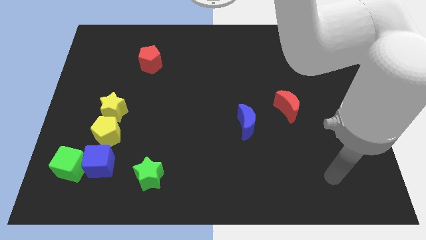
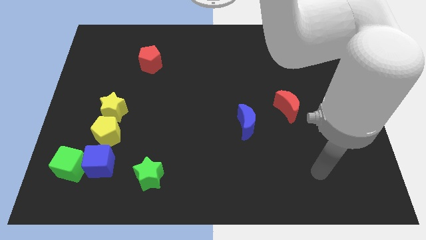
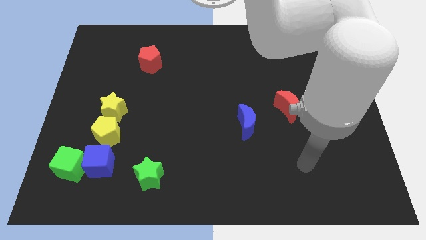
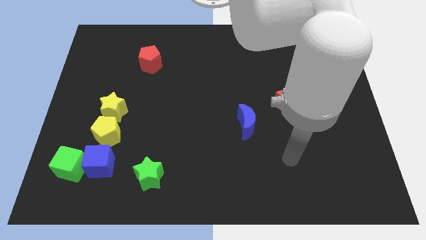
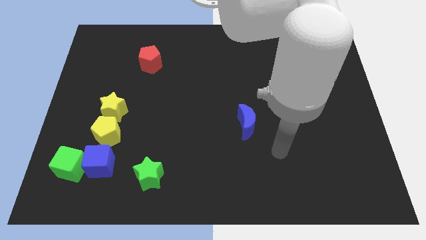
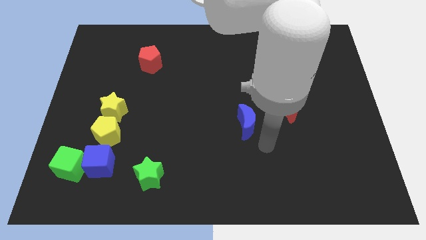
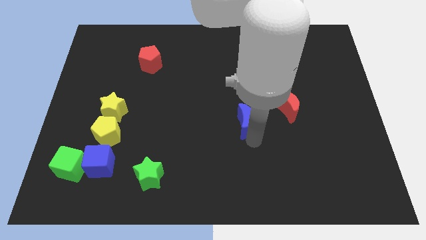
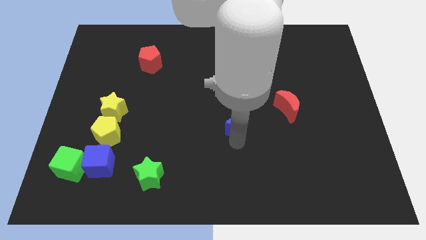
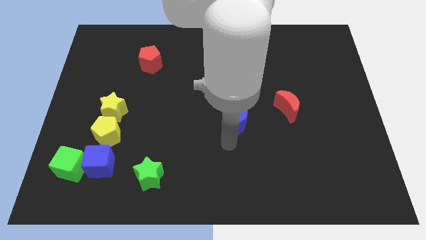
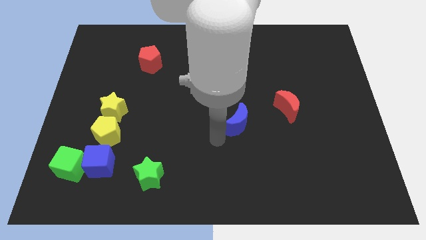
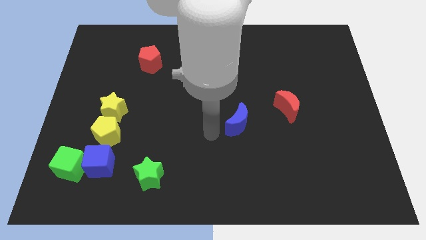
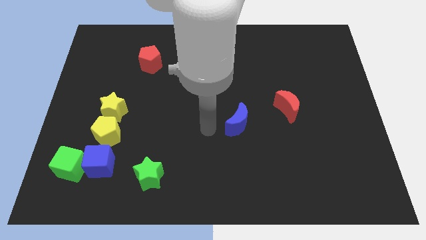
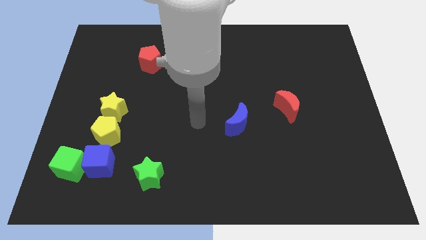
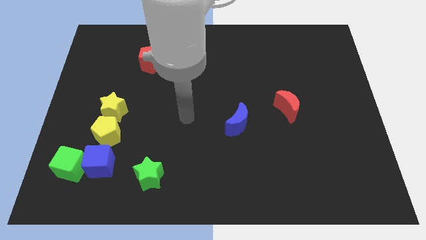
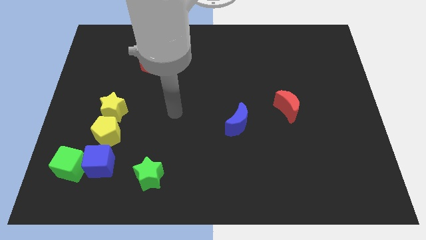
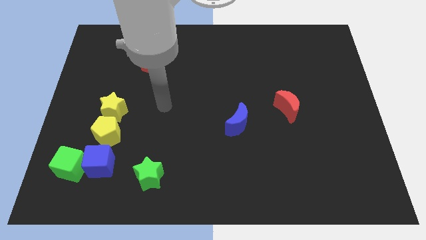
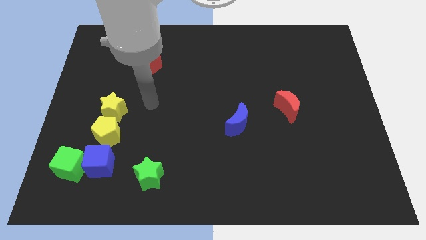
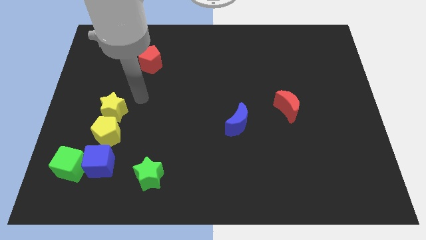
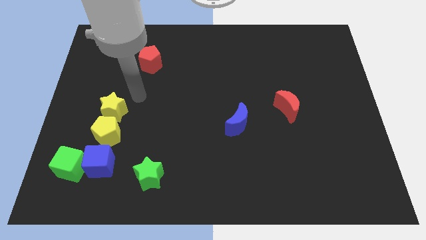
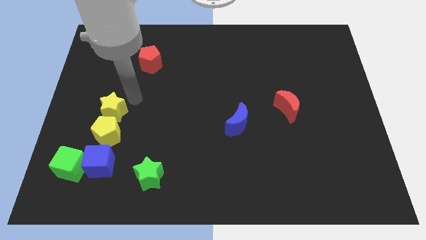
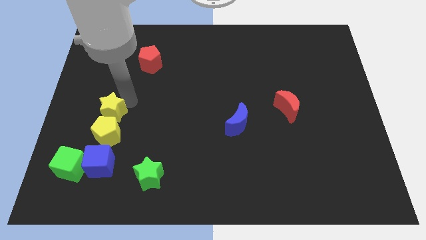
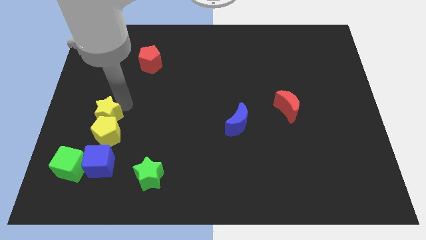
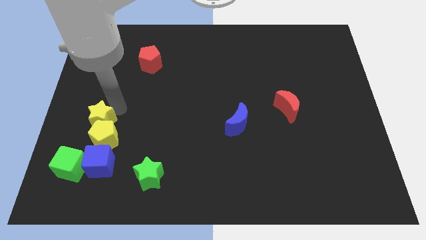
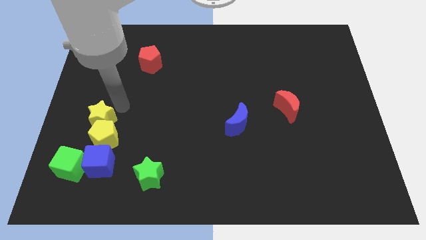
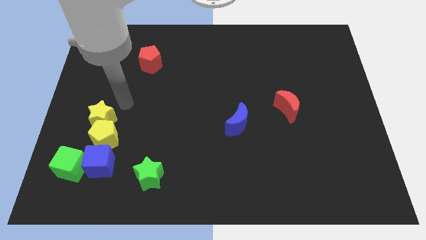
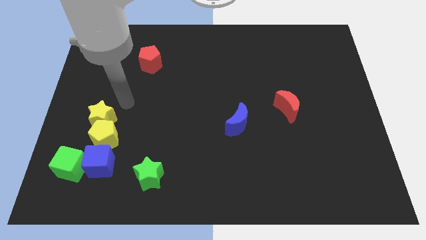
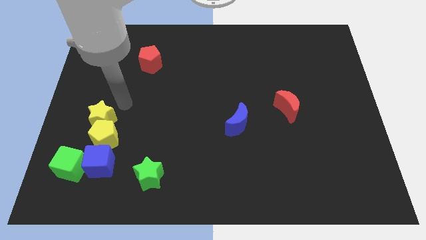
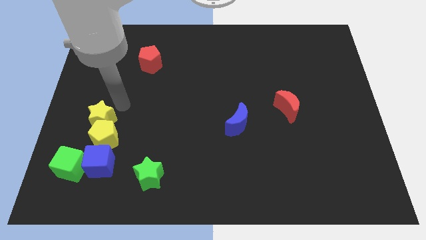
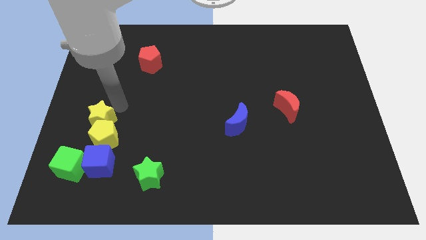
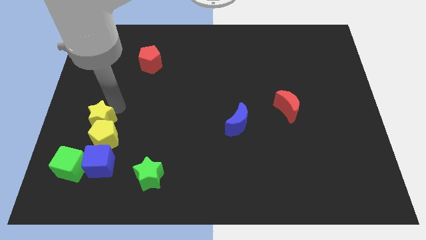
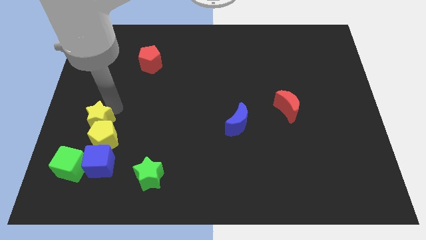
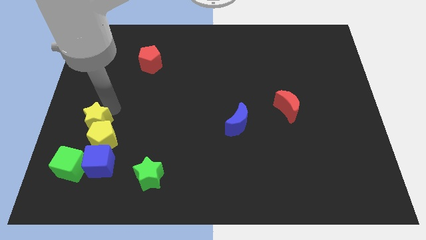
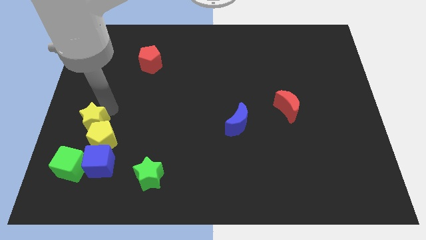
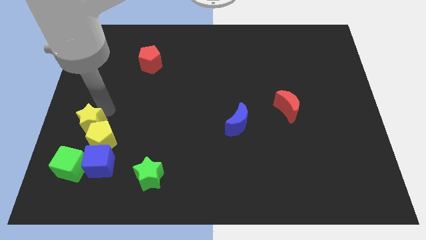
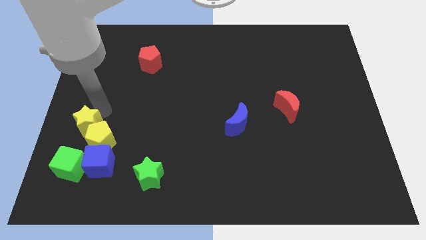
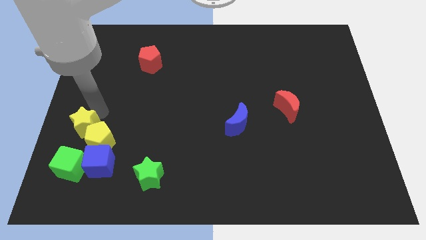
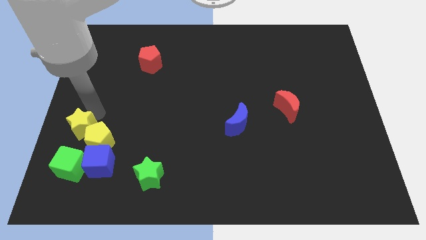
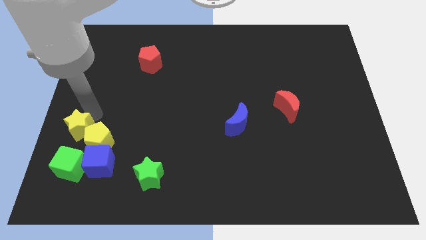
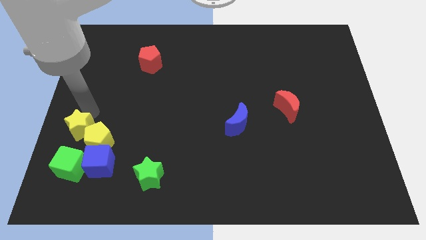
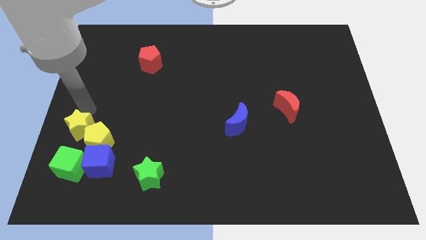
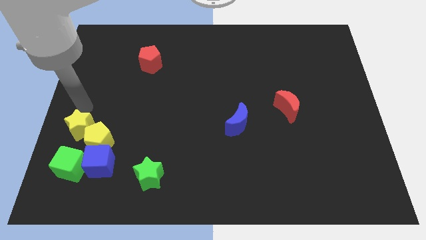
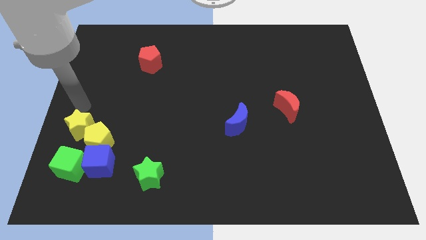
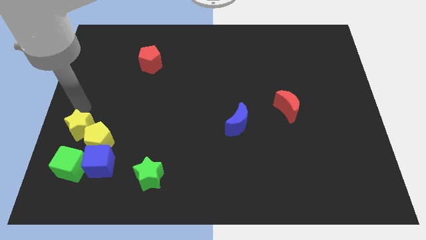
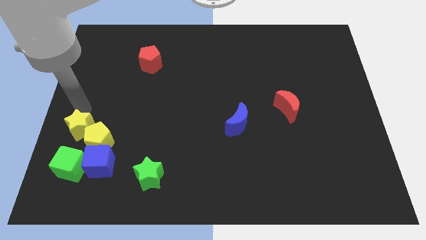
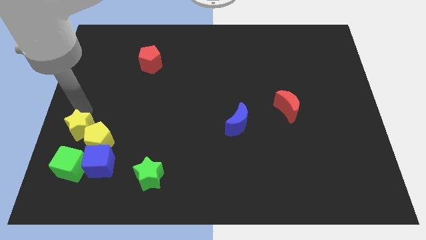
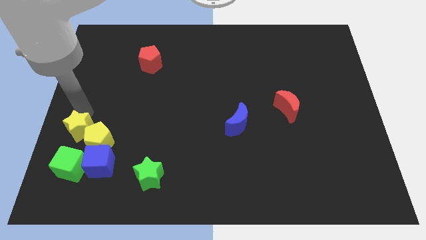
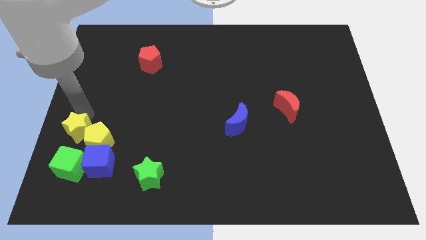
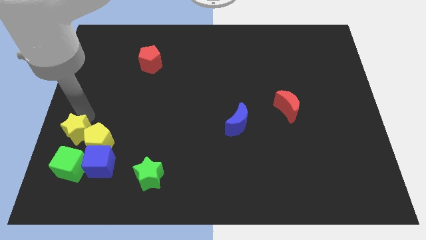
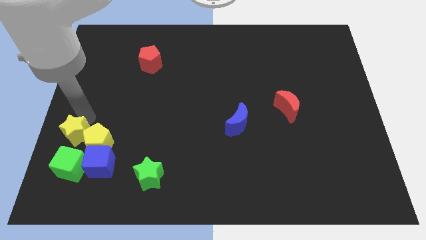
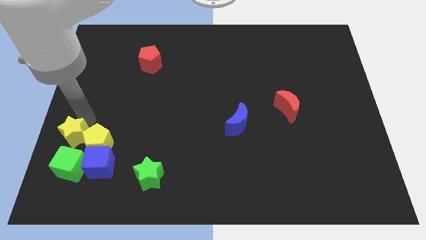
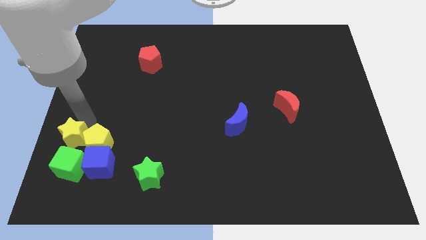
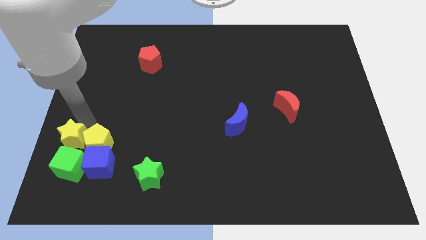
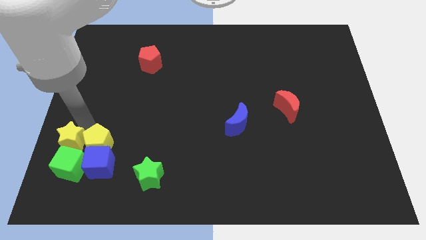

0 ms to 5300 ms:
move the yellow star to the green cube

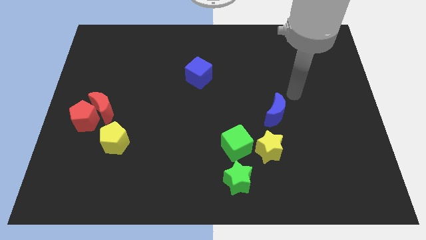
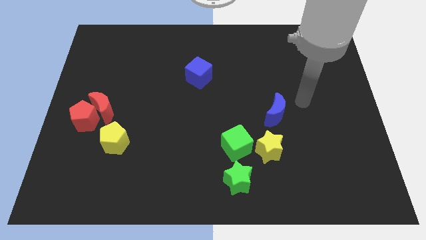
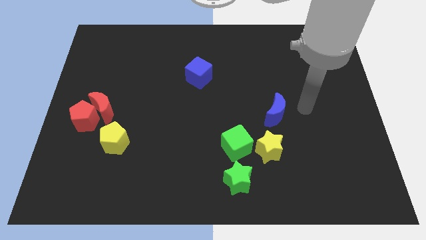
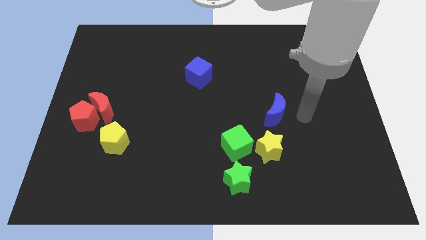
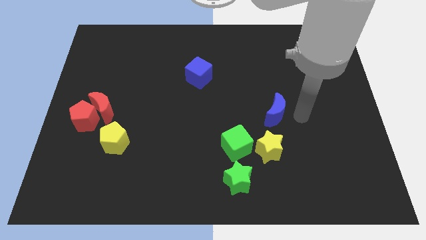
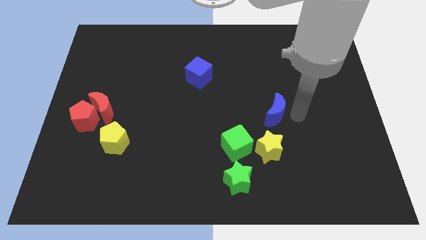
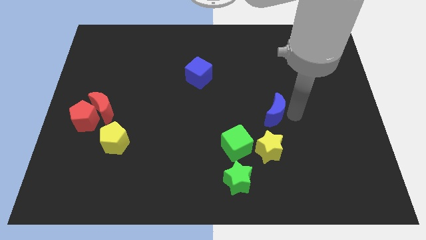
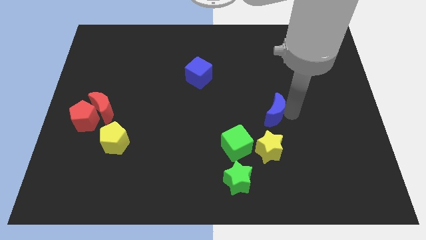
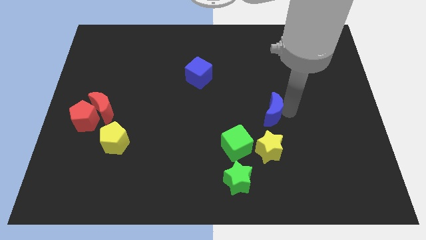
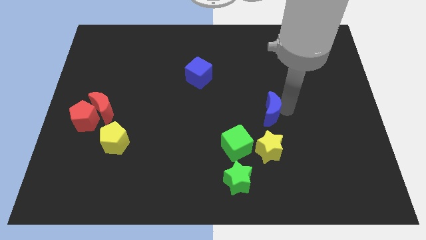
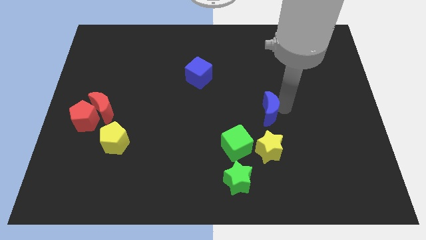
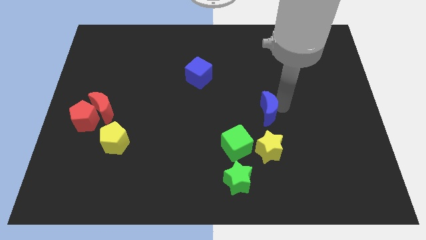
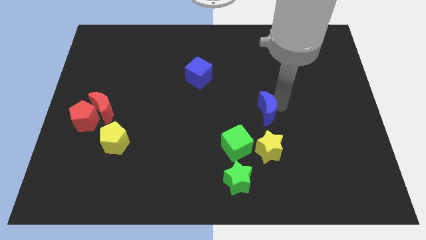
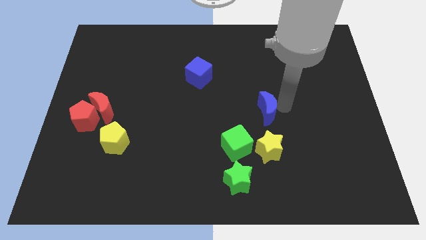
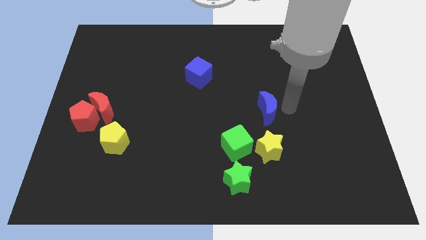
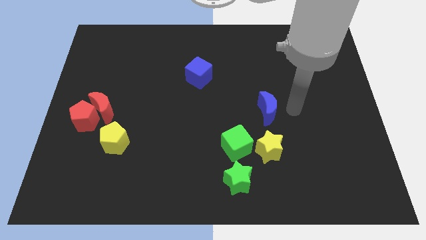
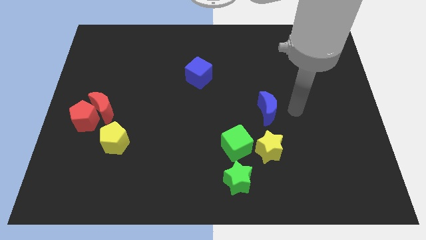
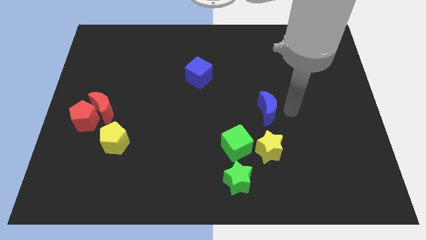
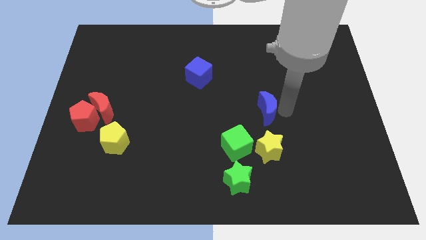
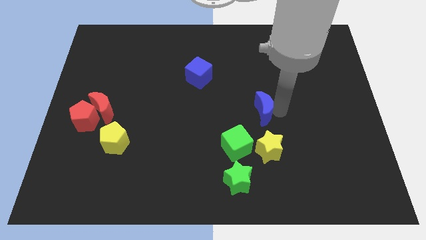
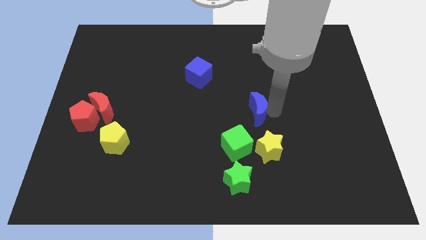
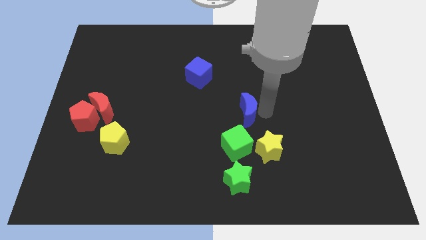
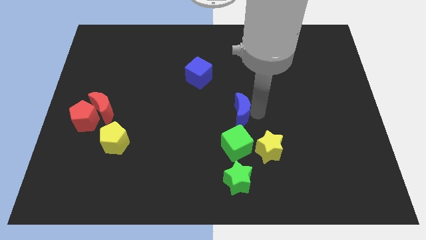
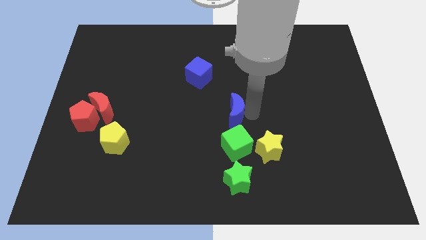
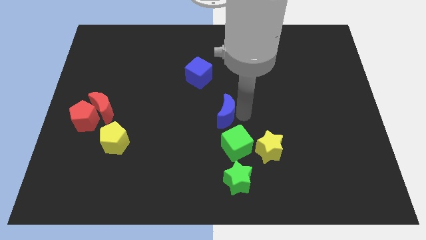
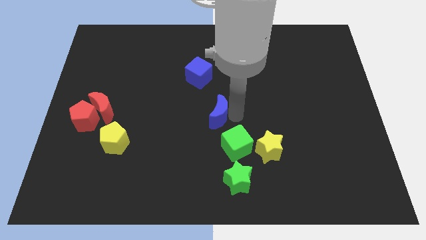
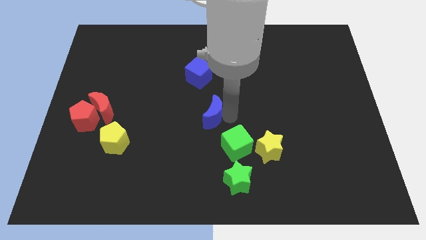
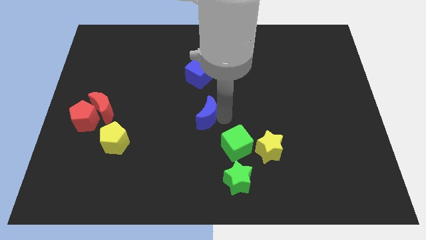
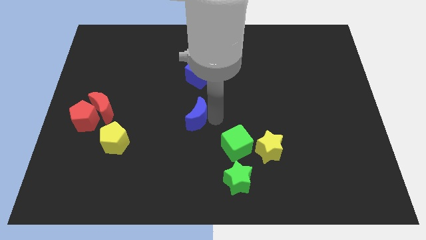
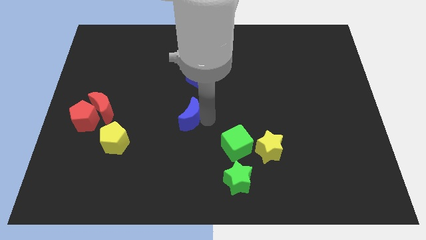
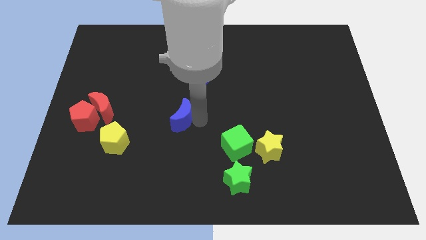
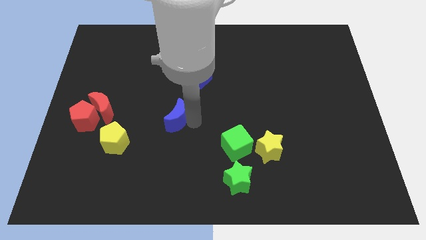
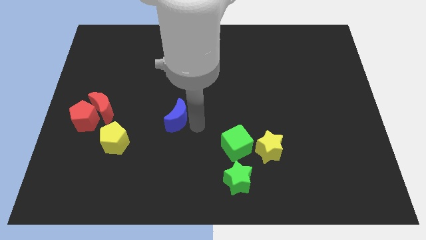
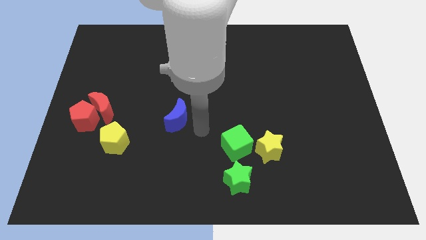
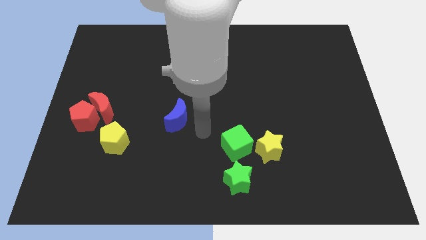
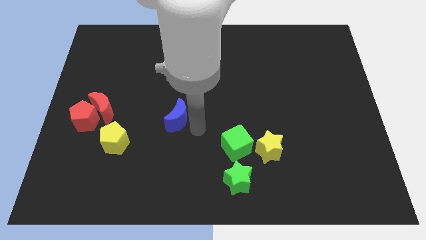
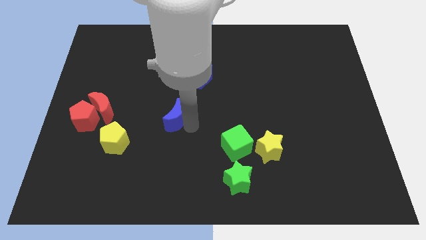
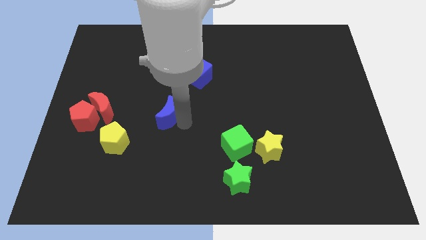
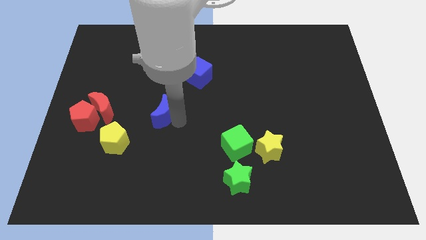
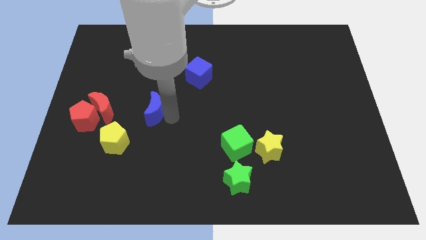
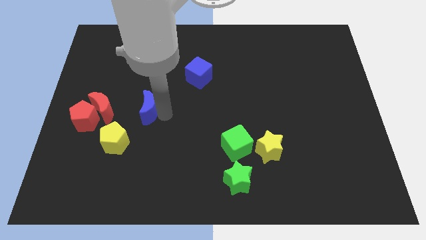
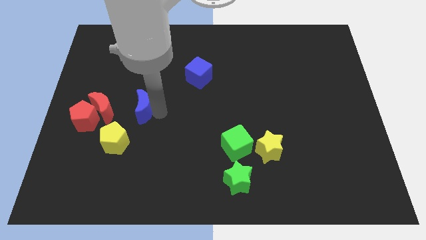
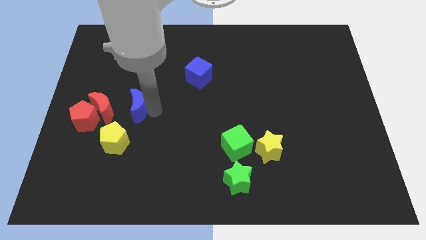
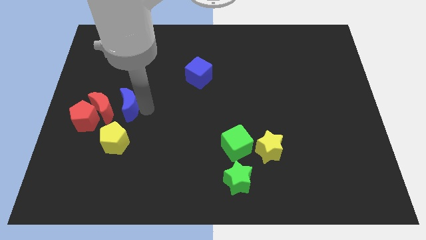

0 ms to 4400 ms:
put the blue moon to the red moon
